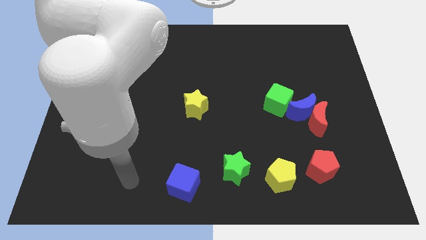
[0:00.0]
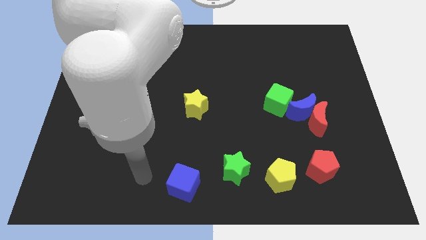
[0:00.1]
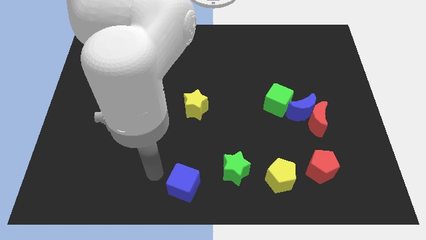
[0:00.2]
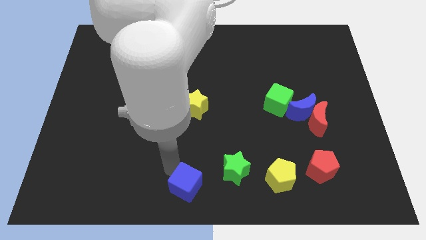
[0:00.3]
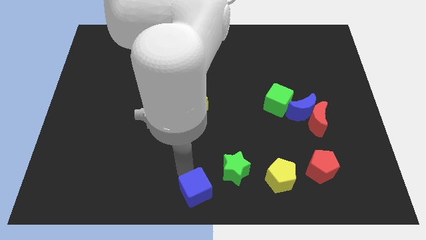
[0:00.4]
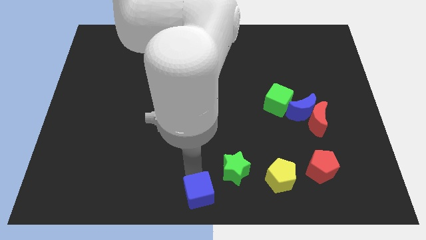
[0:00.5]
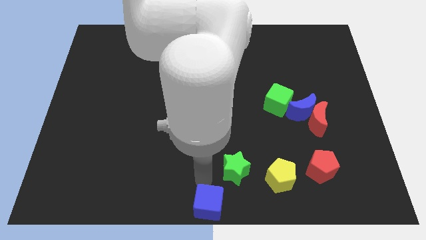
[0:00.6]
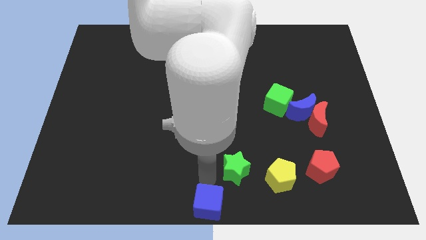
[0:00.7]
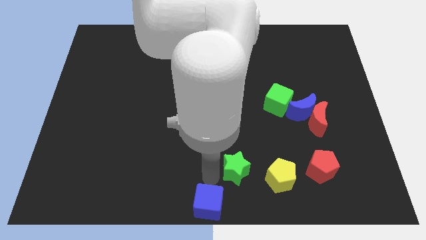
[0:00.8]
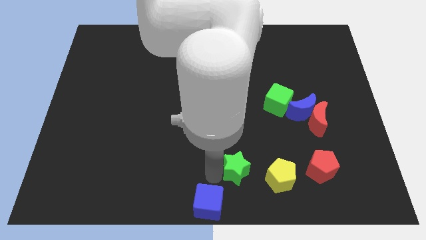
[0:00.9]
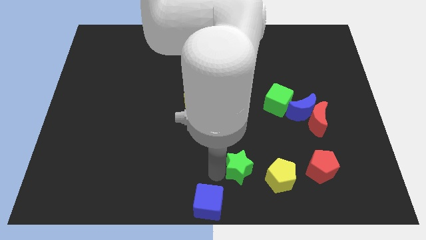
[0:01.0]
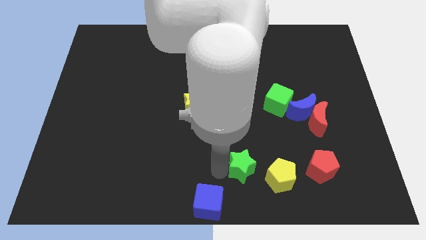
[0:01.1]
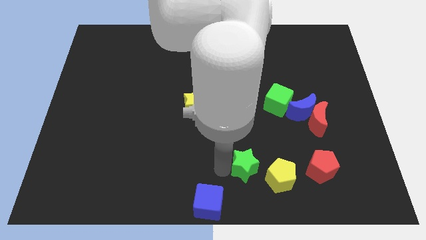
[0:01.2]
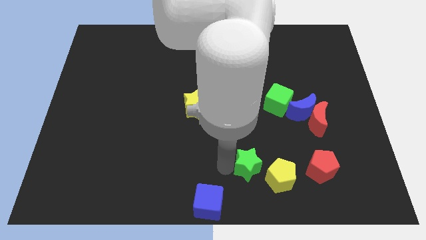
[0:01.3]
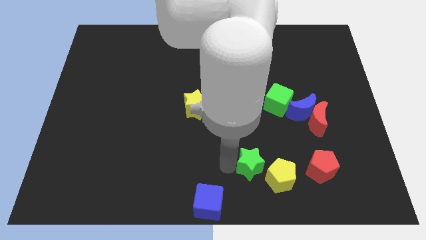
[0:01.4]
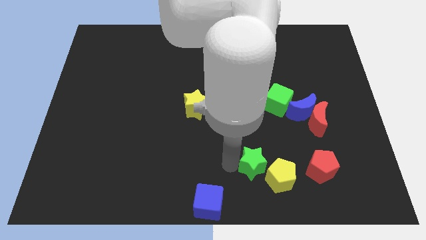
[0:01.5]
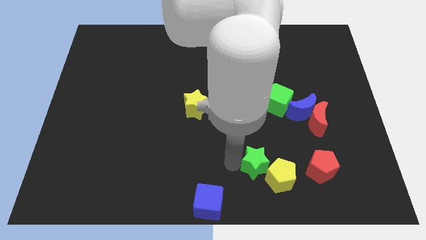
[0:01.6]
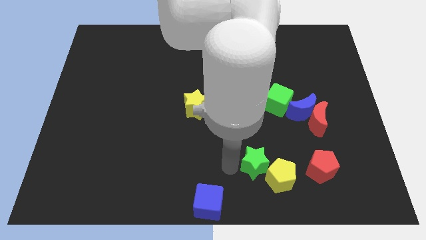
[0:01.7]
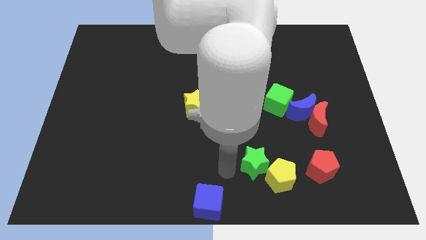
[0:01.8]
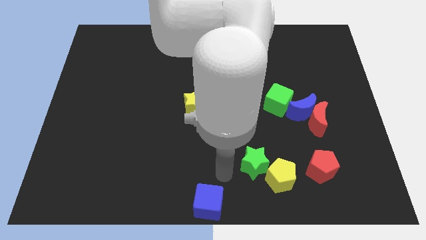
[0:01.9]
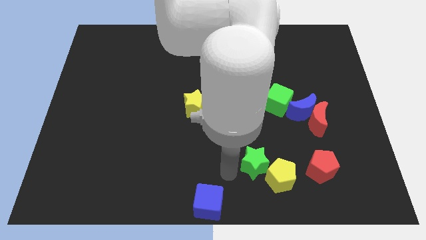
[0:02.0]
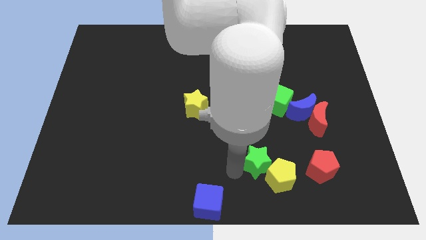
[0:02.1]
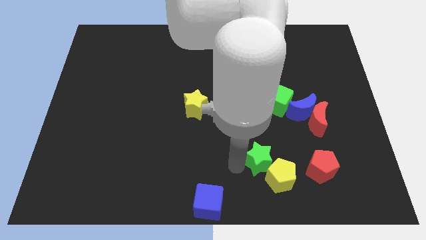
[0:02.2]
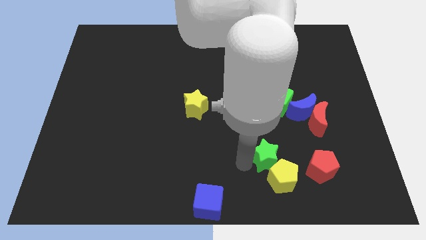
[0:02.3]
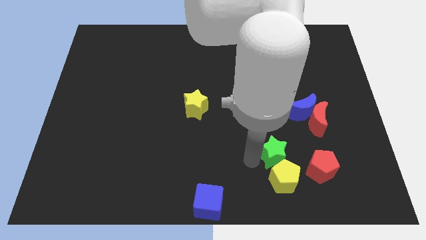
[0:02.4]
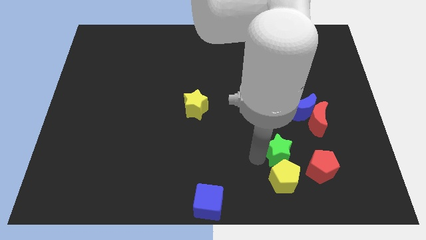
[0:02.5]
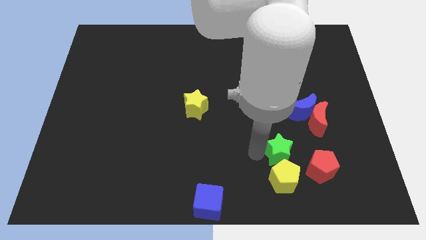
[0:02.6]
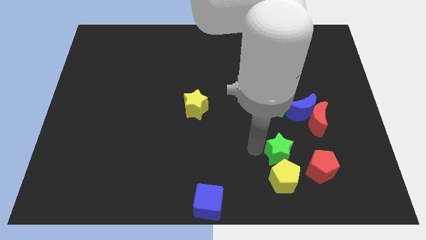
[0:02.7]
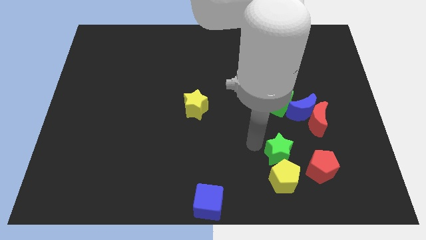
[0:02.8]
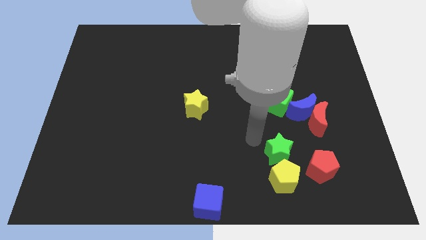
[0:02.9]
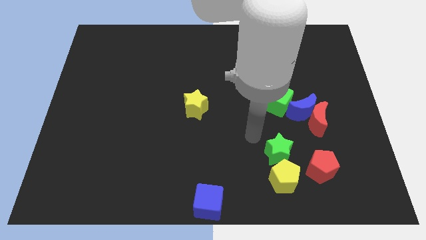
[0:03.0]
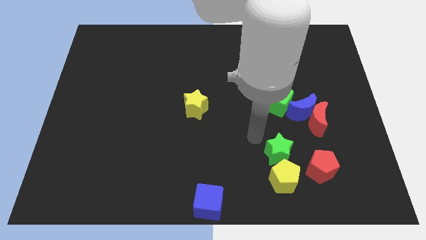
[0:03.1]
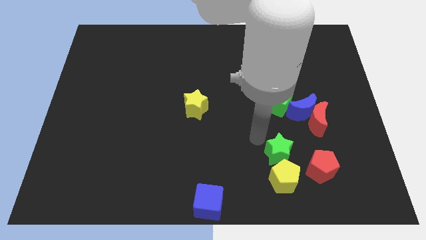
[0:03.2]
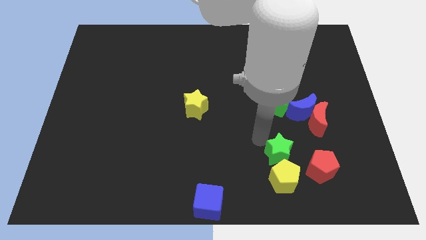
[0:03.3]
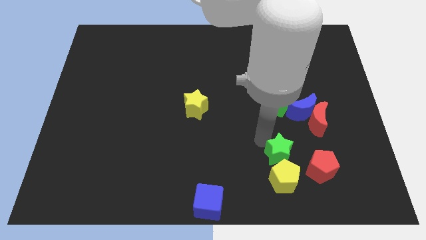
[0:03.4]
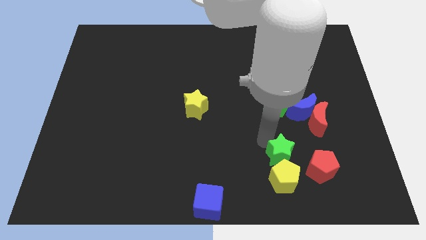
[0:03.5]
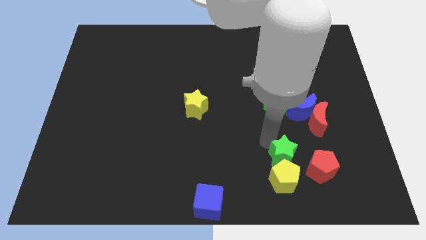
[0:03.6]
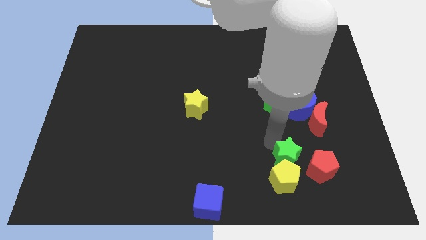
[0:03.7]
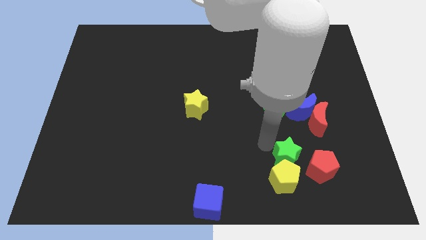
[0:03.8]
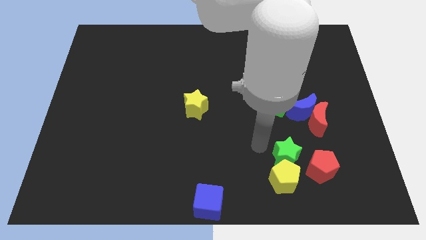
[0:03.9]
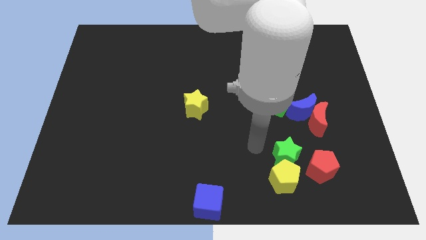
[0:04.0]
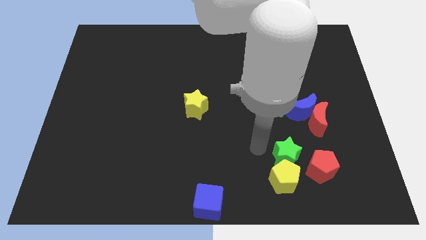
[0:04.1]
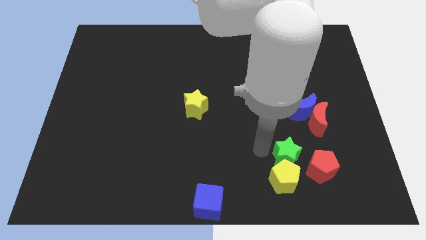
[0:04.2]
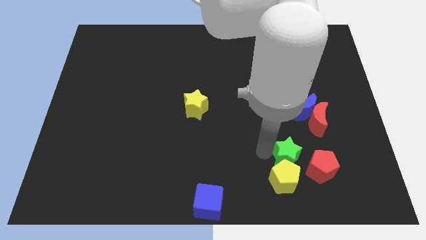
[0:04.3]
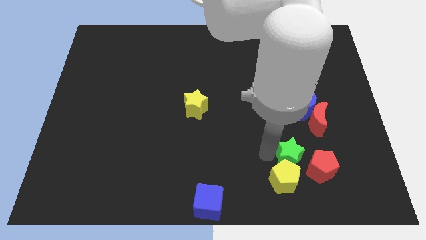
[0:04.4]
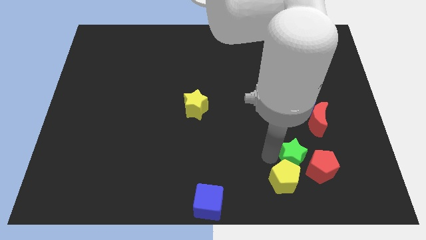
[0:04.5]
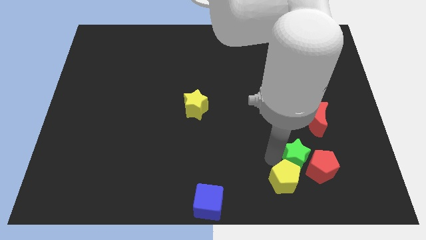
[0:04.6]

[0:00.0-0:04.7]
move the green star to the red pentagon

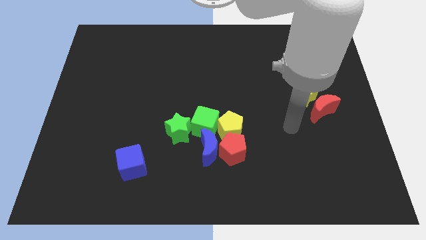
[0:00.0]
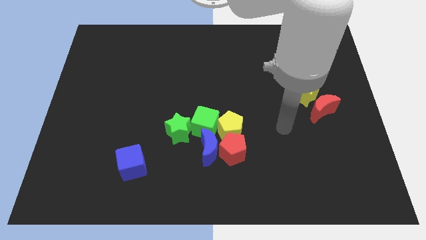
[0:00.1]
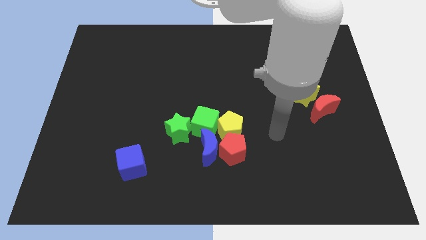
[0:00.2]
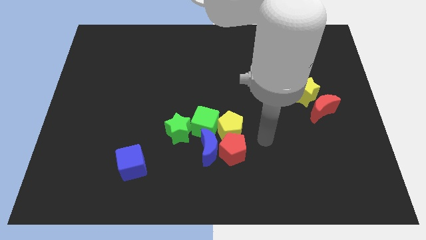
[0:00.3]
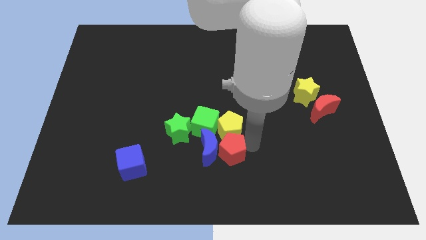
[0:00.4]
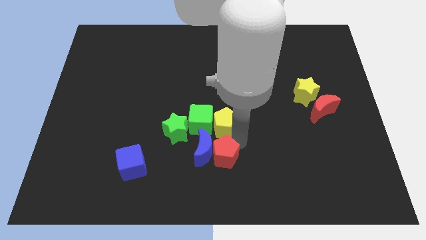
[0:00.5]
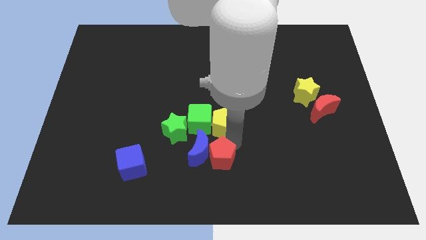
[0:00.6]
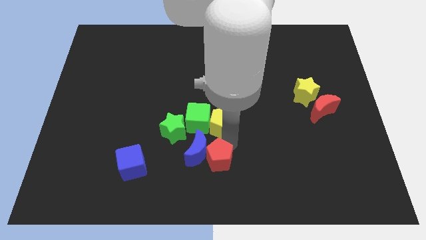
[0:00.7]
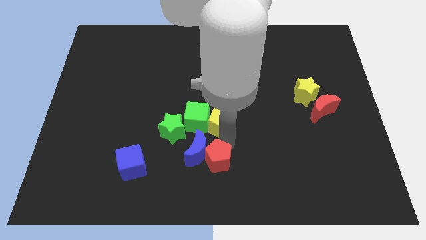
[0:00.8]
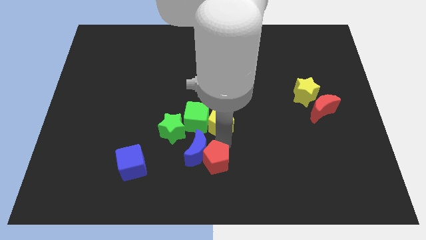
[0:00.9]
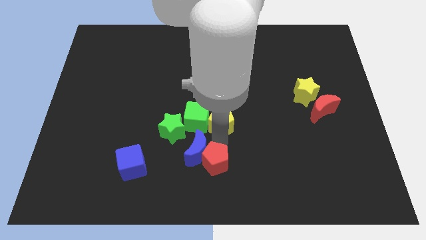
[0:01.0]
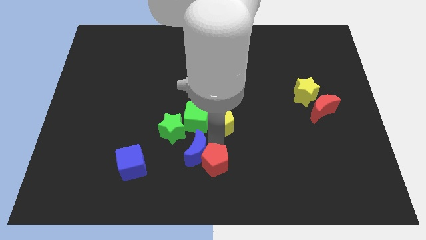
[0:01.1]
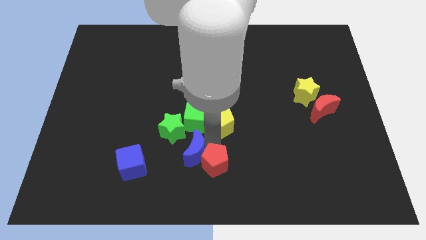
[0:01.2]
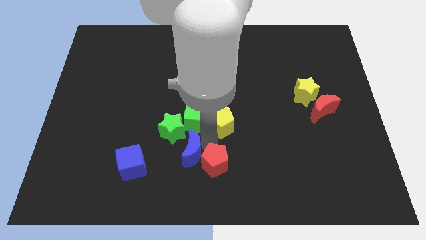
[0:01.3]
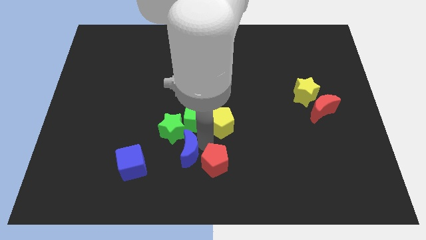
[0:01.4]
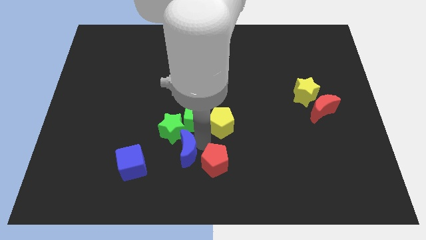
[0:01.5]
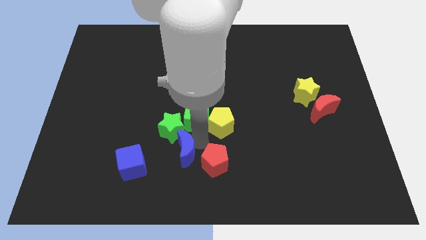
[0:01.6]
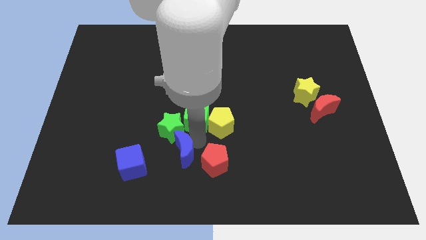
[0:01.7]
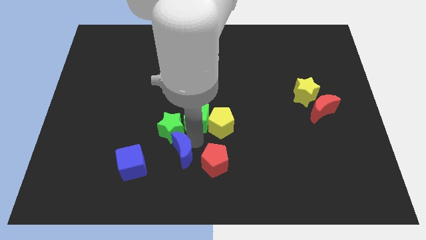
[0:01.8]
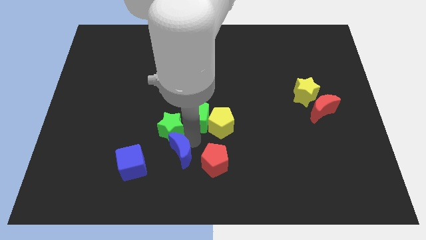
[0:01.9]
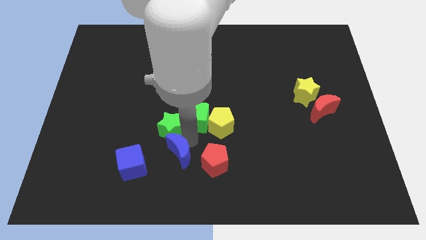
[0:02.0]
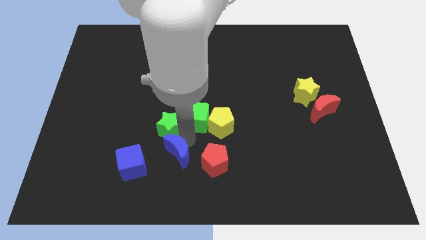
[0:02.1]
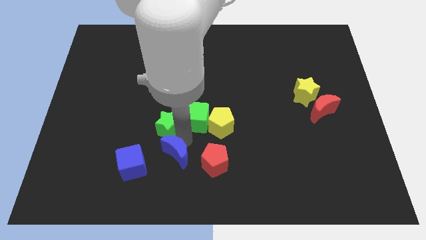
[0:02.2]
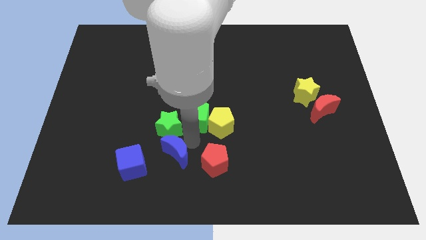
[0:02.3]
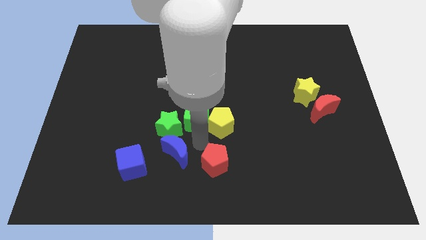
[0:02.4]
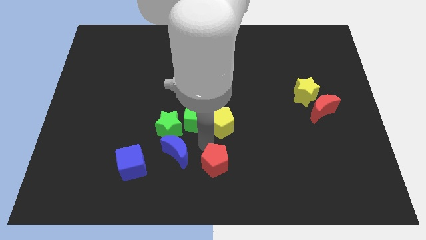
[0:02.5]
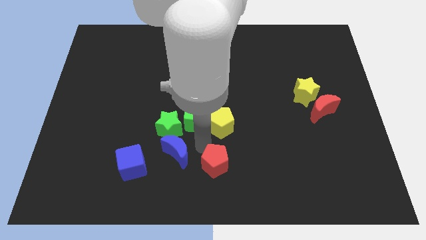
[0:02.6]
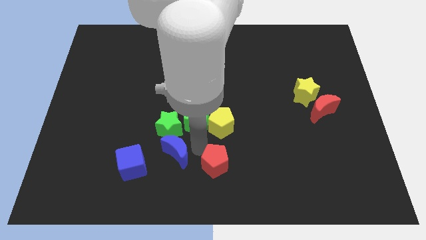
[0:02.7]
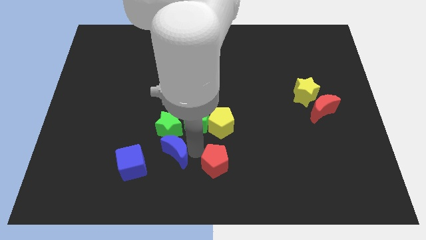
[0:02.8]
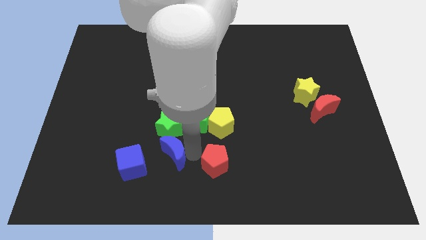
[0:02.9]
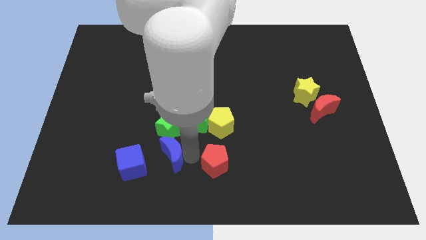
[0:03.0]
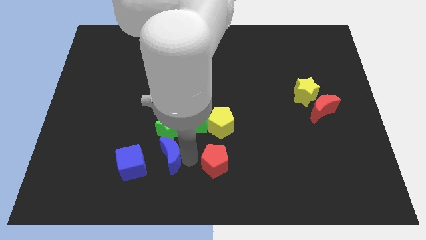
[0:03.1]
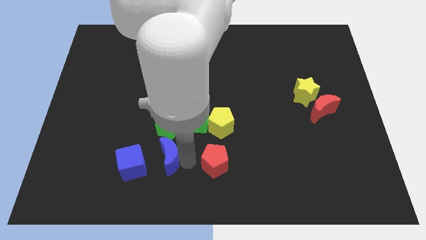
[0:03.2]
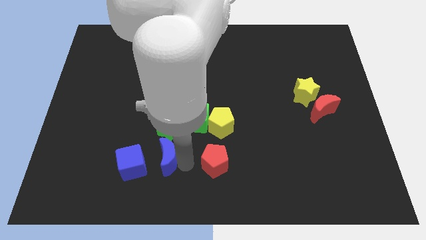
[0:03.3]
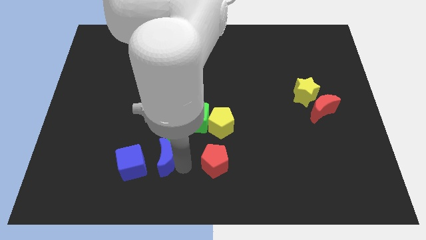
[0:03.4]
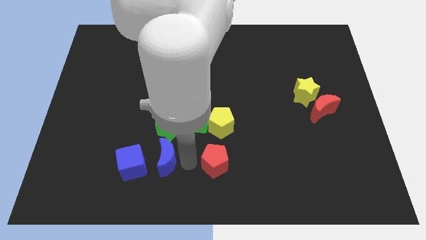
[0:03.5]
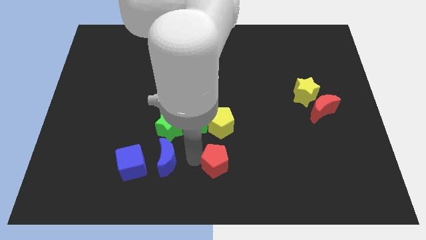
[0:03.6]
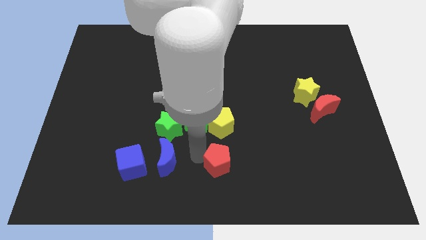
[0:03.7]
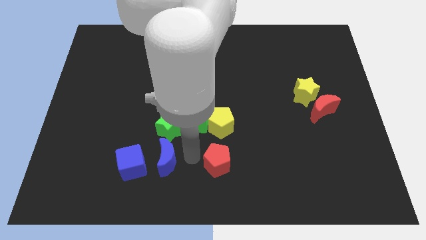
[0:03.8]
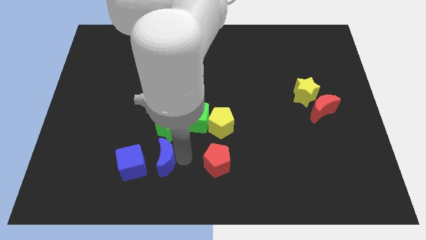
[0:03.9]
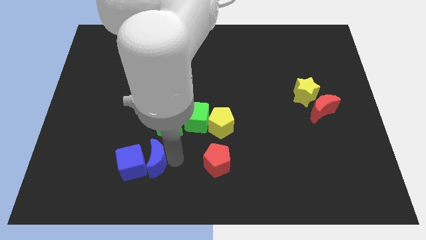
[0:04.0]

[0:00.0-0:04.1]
slide the blue moon towards the blue cube
